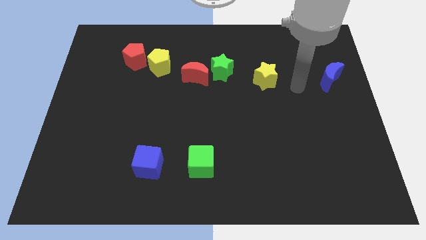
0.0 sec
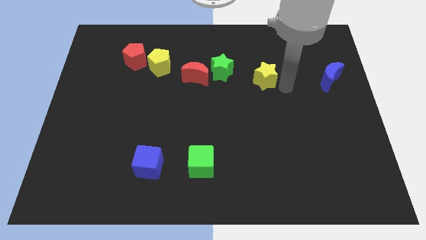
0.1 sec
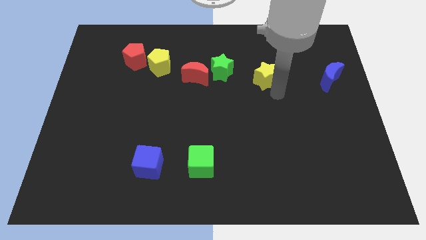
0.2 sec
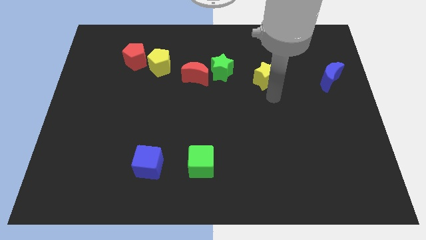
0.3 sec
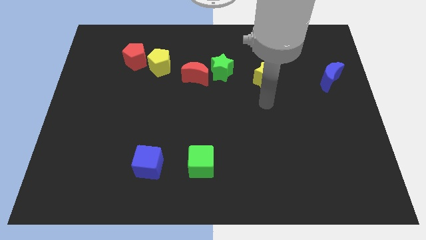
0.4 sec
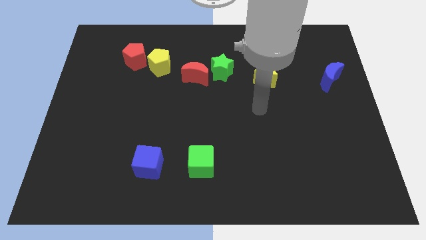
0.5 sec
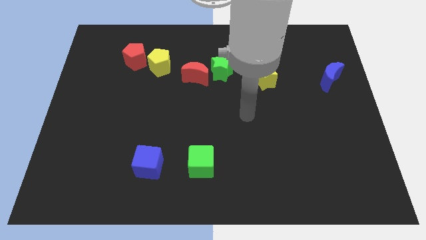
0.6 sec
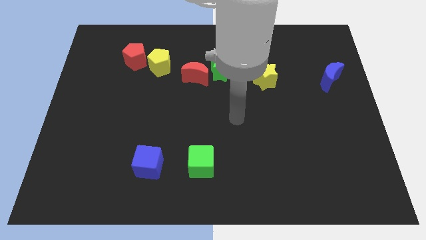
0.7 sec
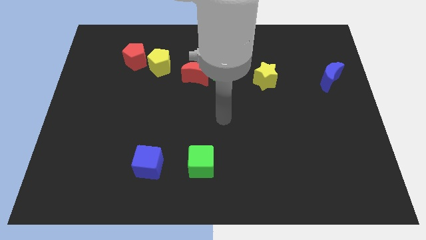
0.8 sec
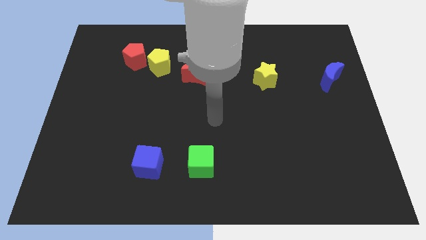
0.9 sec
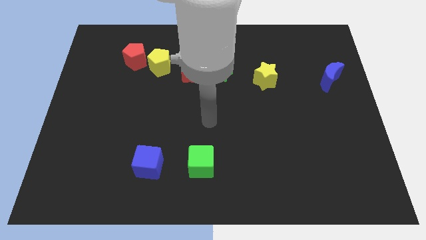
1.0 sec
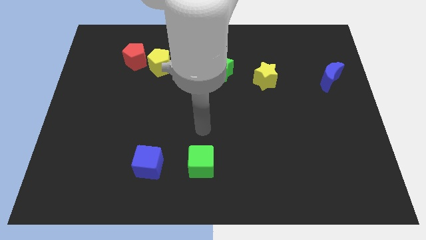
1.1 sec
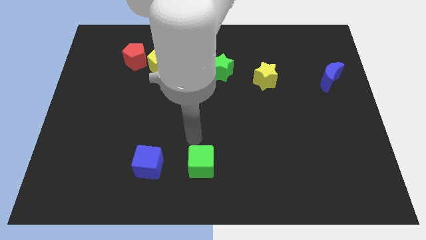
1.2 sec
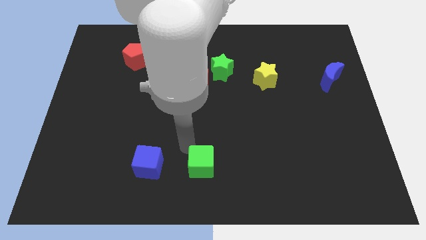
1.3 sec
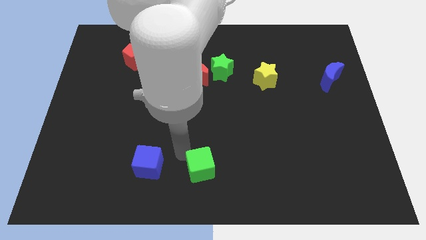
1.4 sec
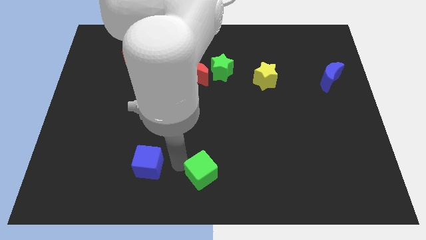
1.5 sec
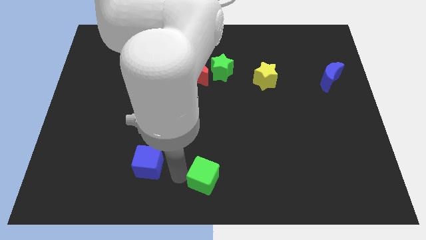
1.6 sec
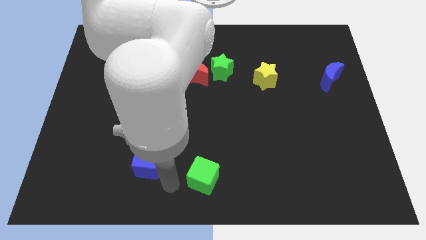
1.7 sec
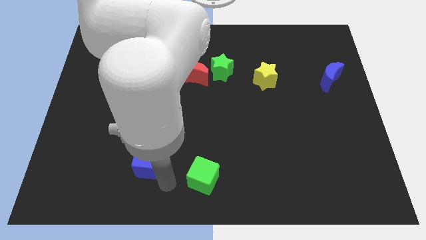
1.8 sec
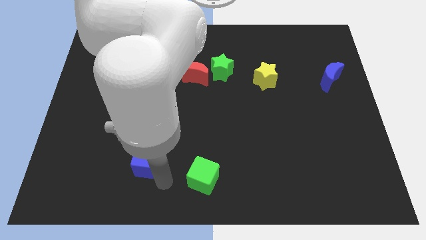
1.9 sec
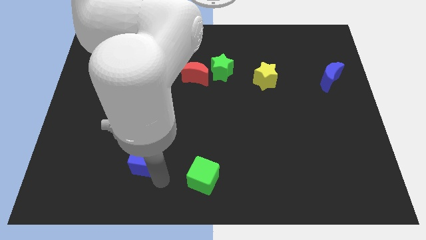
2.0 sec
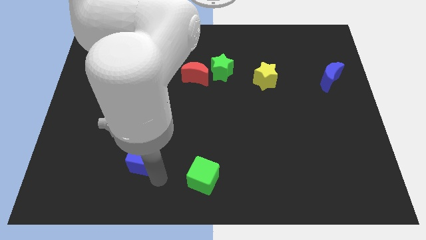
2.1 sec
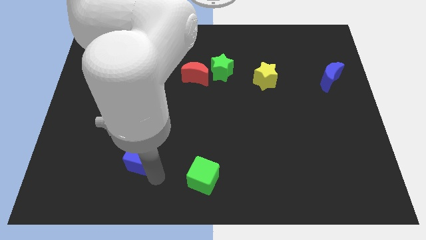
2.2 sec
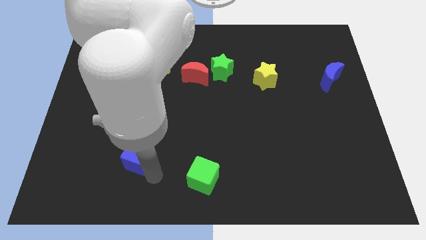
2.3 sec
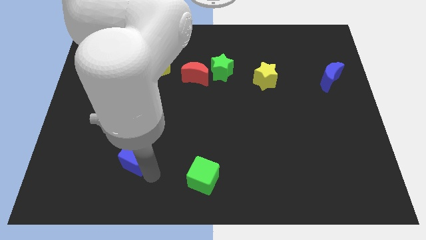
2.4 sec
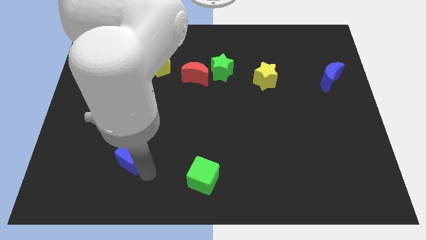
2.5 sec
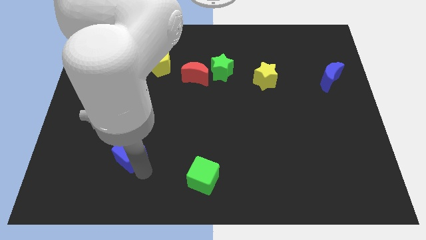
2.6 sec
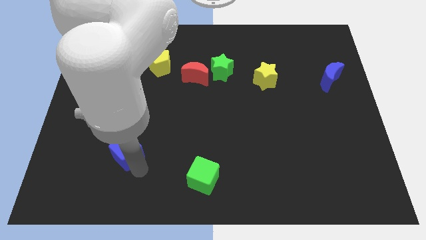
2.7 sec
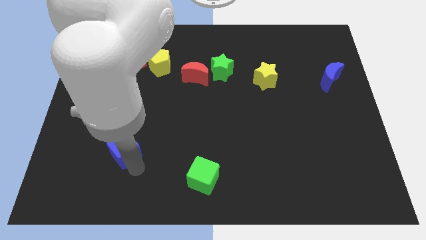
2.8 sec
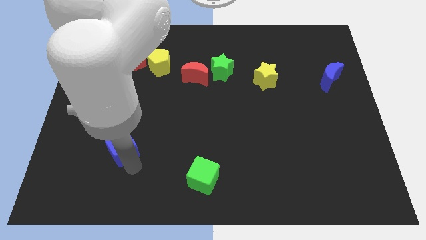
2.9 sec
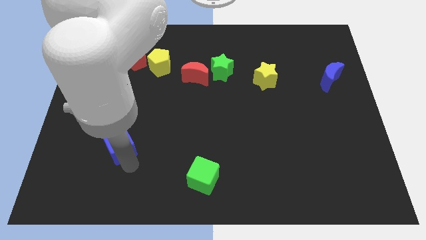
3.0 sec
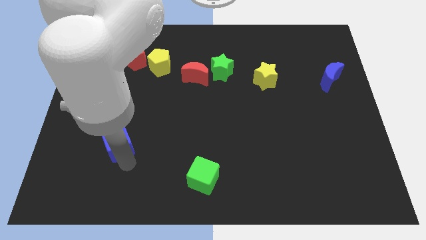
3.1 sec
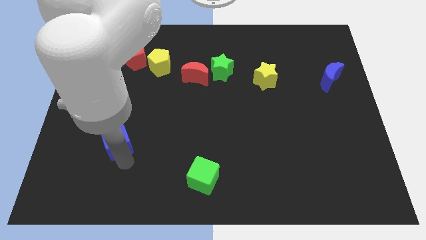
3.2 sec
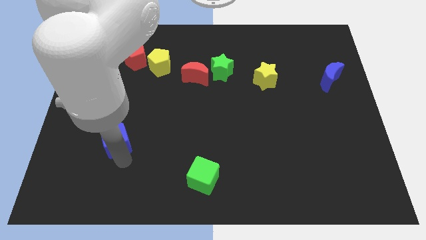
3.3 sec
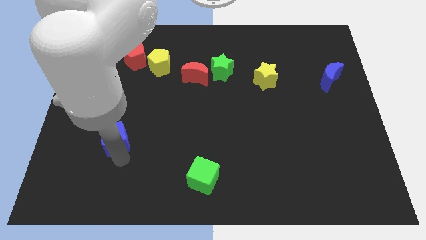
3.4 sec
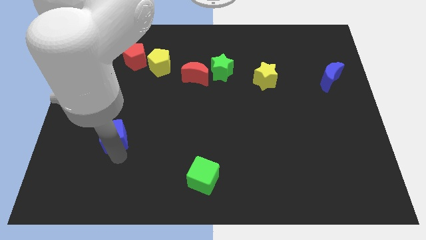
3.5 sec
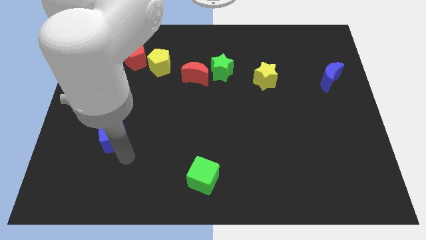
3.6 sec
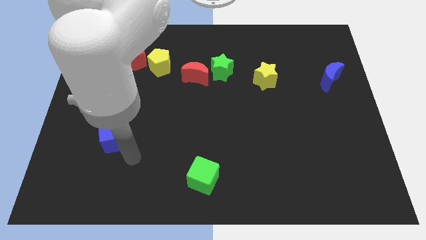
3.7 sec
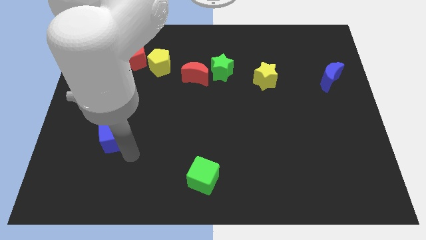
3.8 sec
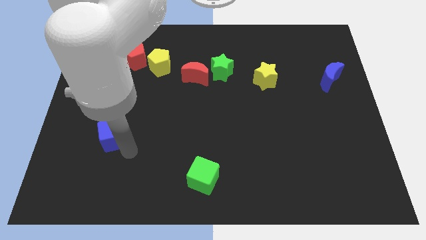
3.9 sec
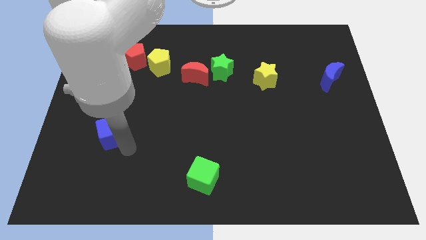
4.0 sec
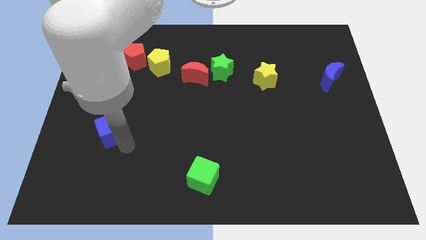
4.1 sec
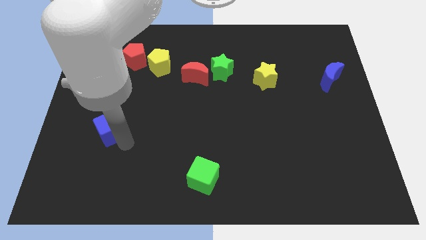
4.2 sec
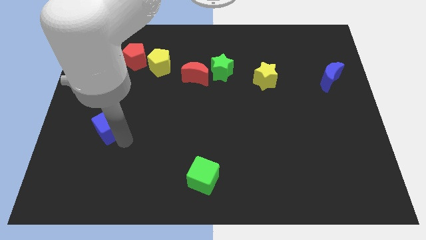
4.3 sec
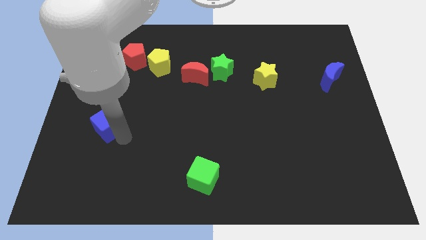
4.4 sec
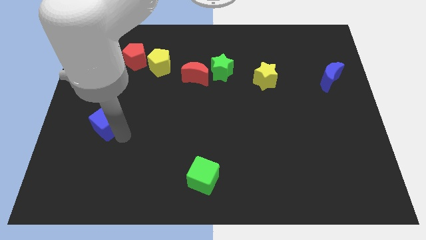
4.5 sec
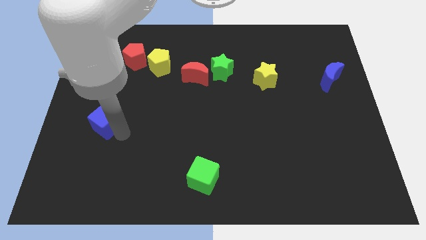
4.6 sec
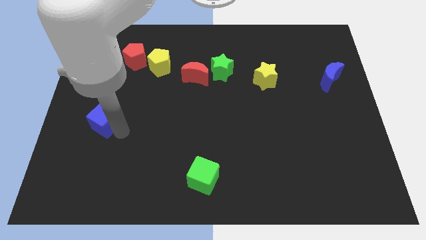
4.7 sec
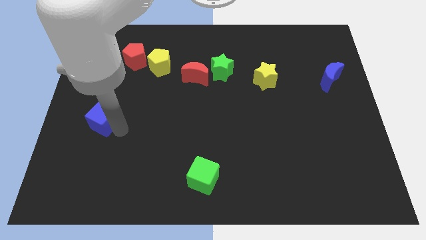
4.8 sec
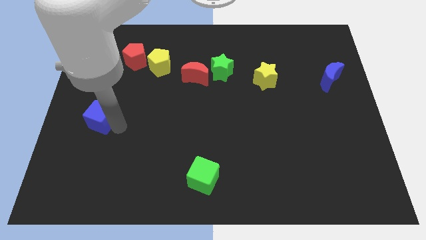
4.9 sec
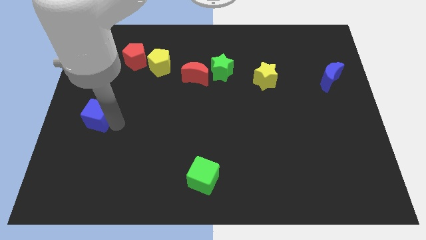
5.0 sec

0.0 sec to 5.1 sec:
move the blue cube to the left side

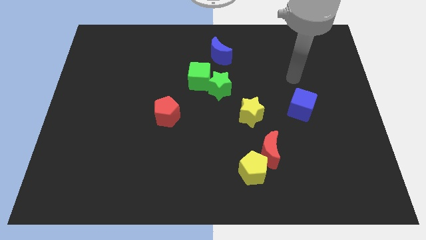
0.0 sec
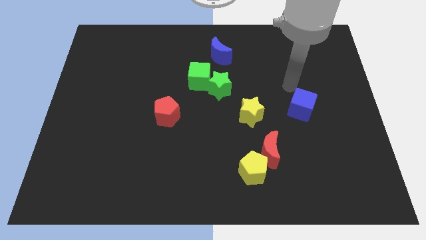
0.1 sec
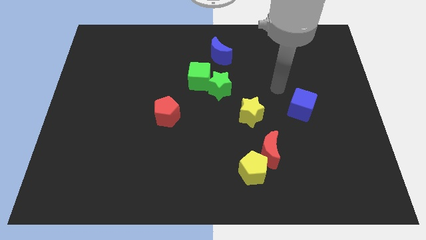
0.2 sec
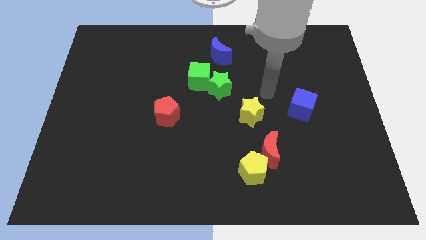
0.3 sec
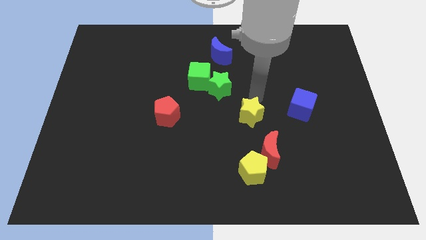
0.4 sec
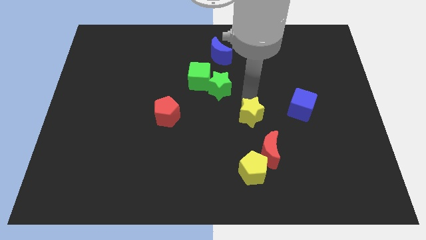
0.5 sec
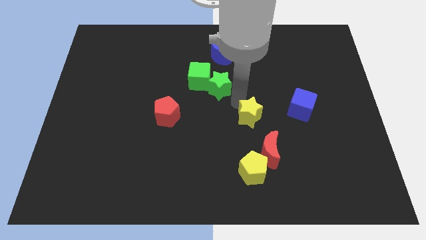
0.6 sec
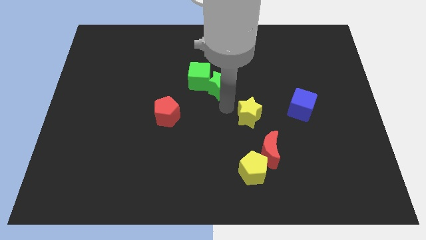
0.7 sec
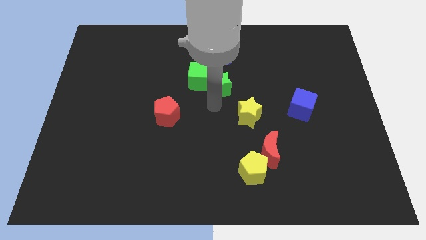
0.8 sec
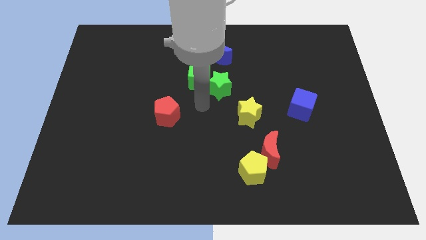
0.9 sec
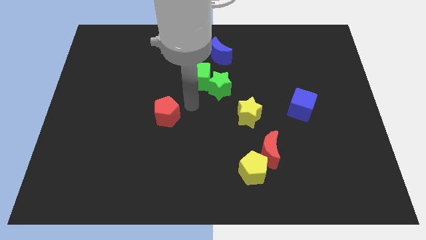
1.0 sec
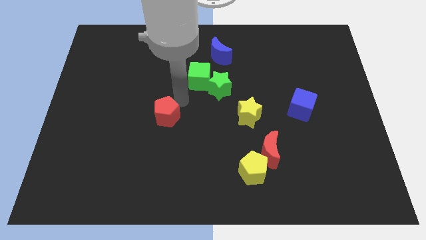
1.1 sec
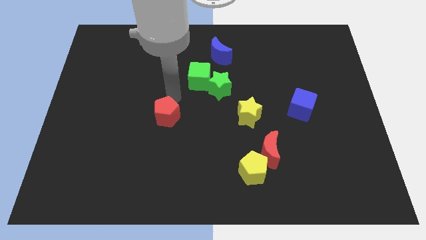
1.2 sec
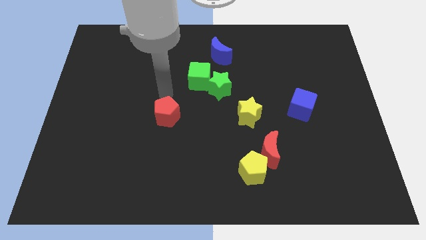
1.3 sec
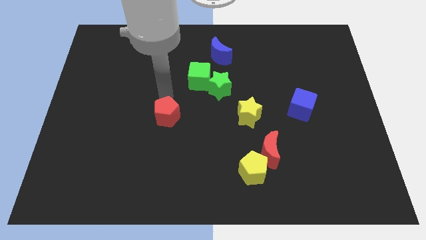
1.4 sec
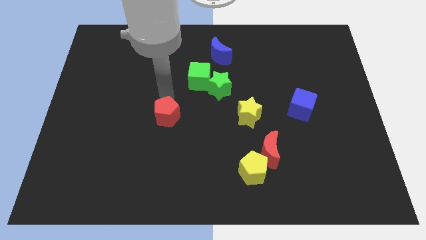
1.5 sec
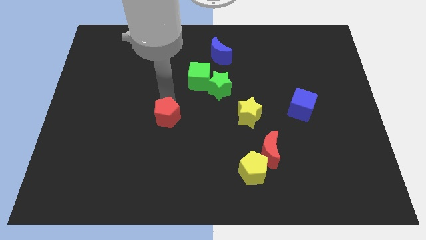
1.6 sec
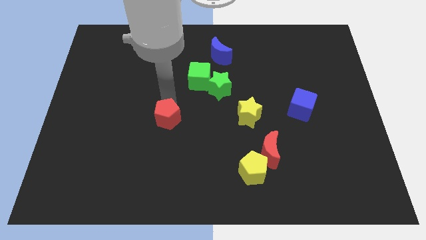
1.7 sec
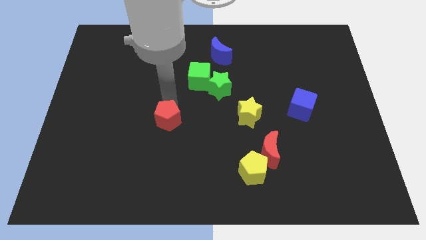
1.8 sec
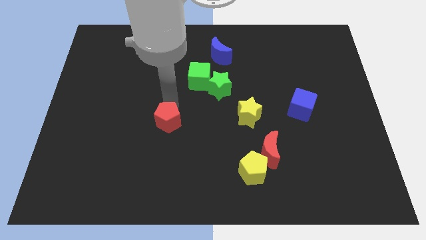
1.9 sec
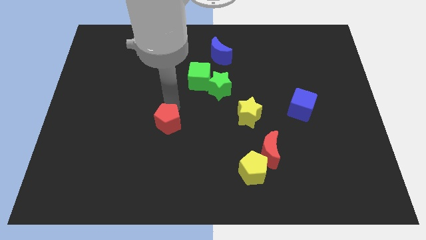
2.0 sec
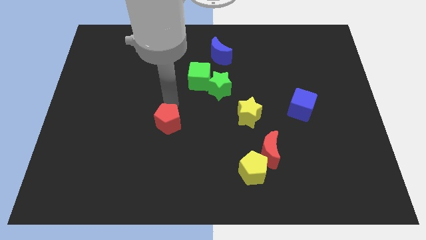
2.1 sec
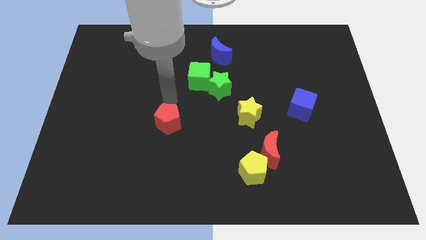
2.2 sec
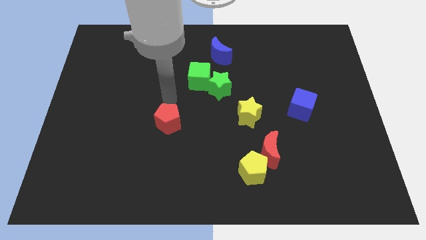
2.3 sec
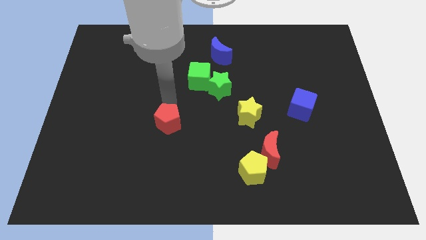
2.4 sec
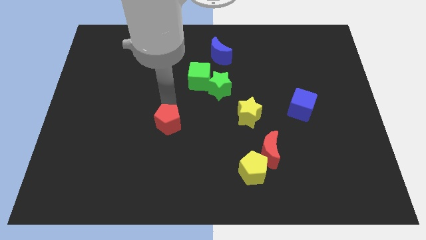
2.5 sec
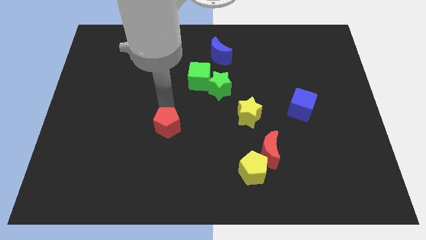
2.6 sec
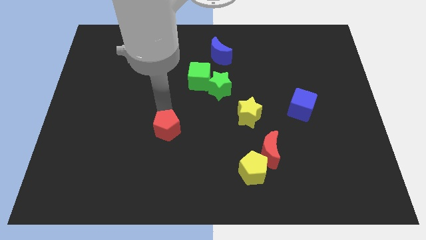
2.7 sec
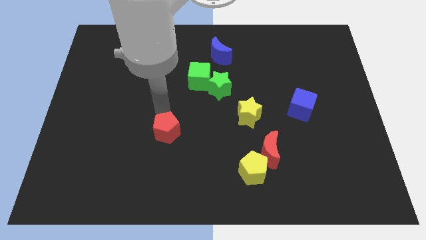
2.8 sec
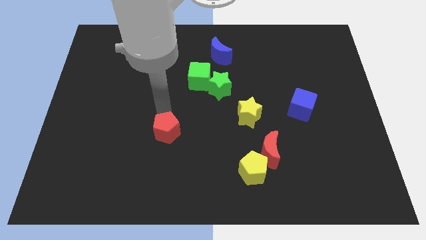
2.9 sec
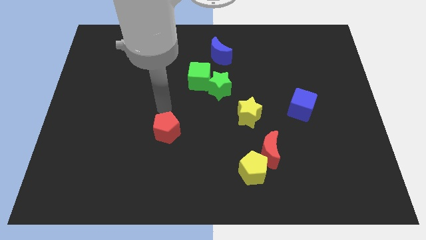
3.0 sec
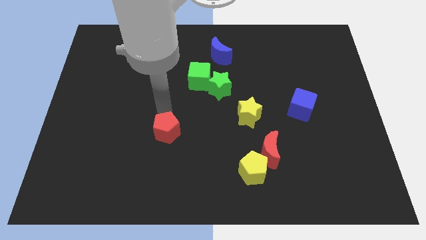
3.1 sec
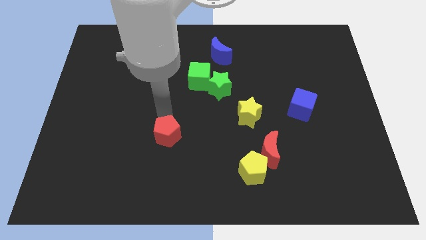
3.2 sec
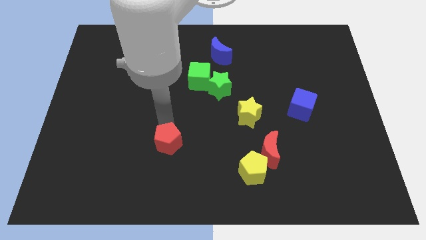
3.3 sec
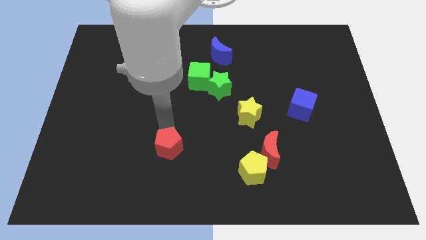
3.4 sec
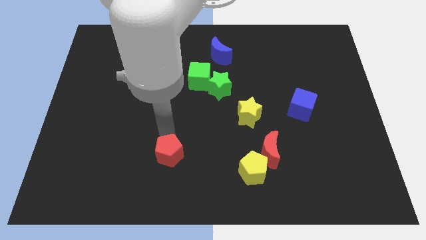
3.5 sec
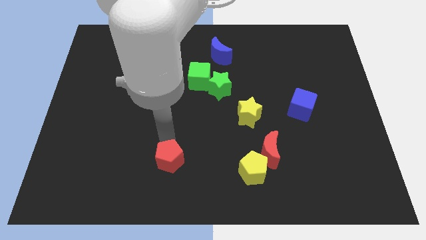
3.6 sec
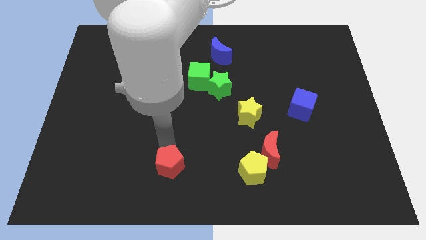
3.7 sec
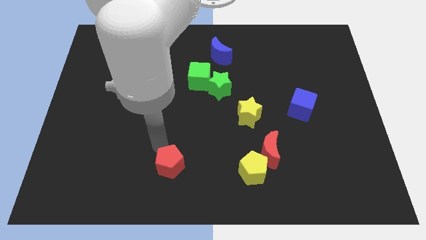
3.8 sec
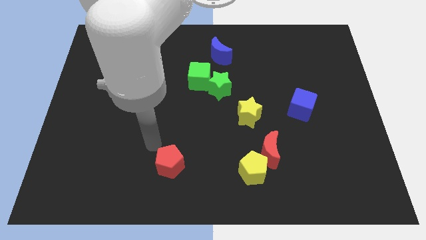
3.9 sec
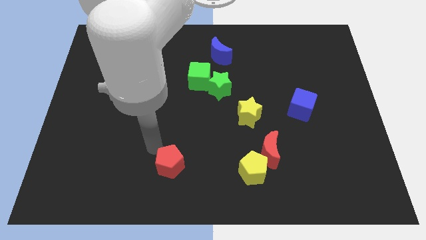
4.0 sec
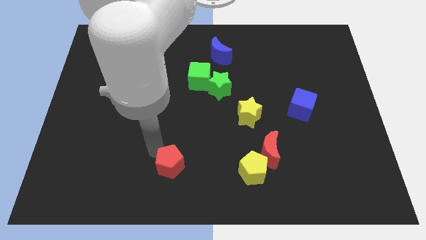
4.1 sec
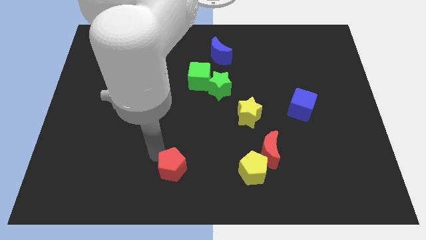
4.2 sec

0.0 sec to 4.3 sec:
move the red pentagon to the bottom side
